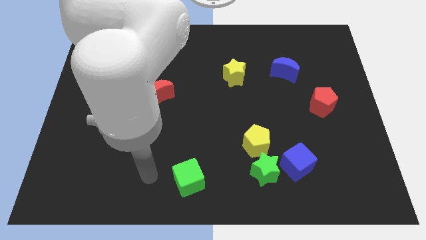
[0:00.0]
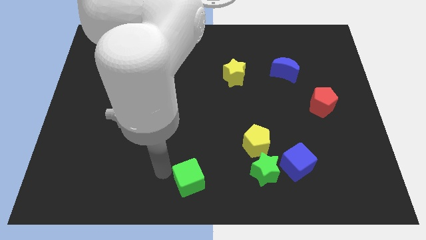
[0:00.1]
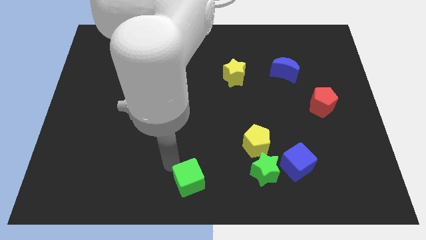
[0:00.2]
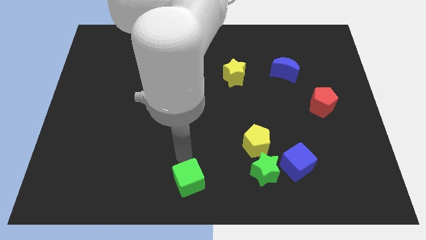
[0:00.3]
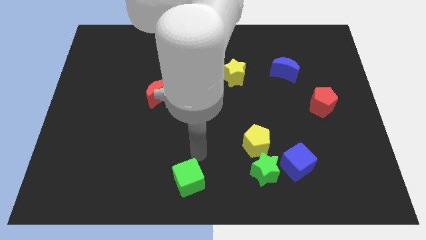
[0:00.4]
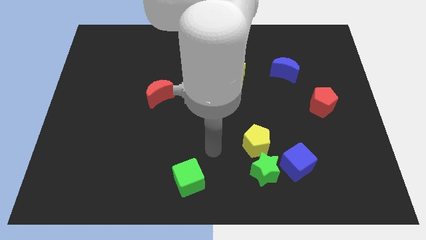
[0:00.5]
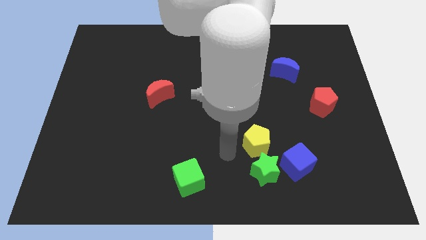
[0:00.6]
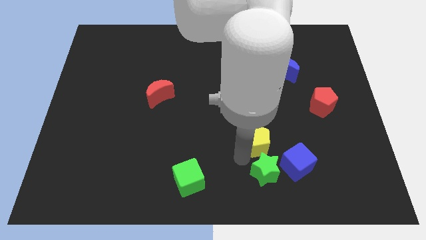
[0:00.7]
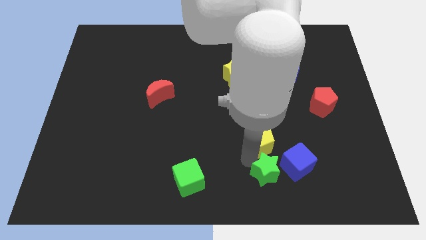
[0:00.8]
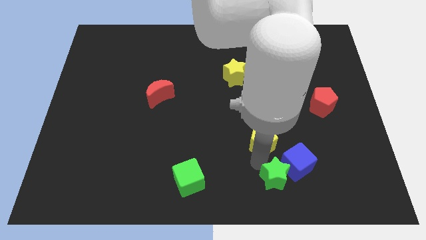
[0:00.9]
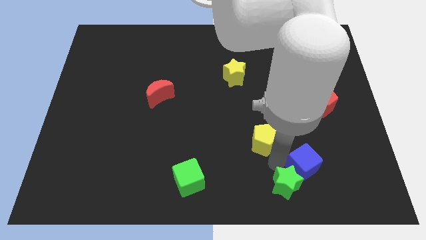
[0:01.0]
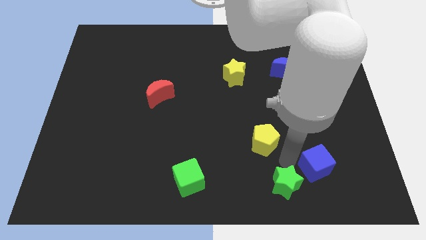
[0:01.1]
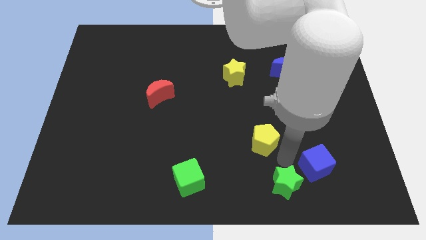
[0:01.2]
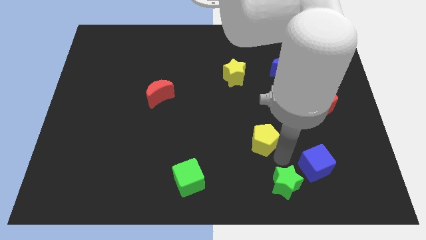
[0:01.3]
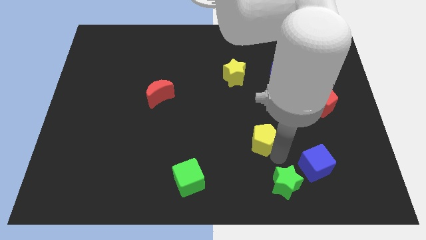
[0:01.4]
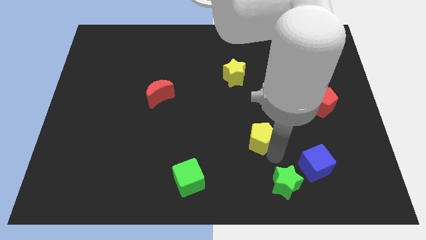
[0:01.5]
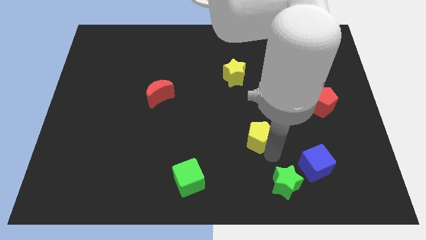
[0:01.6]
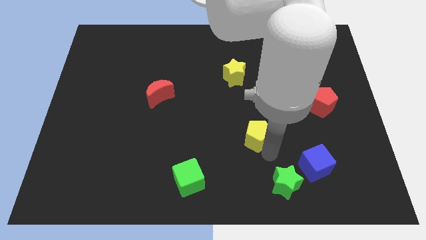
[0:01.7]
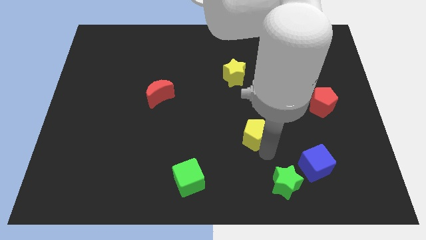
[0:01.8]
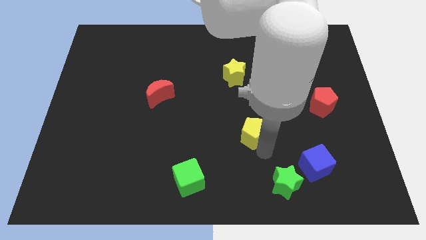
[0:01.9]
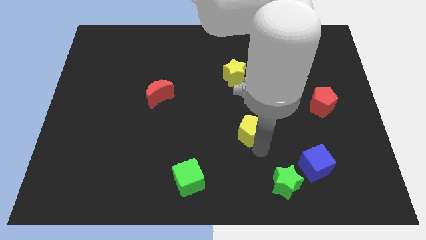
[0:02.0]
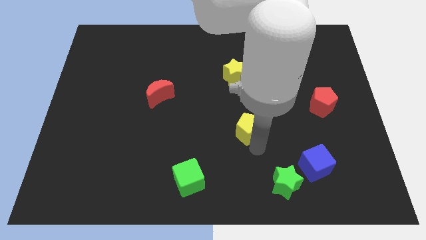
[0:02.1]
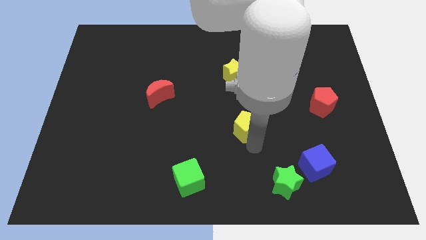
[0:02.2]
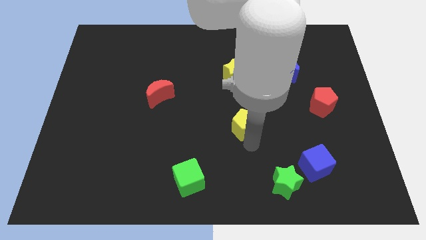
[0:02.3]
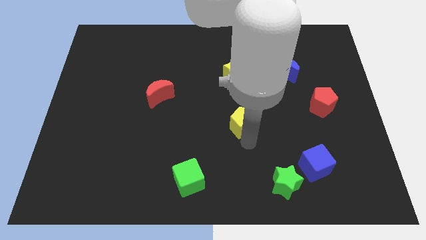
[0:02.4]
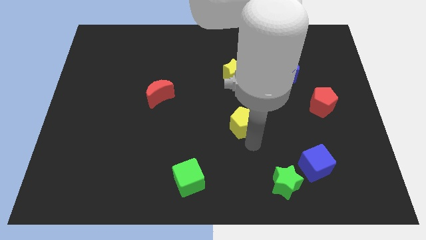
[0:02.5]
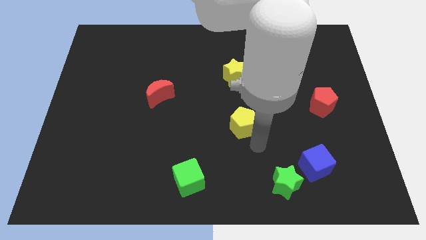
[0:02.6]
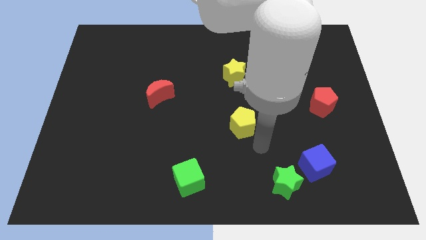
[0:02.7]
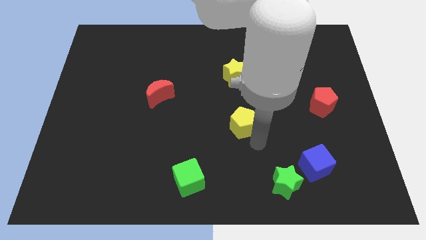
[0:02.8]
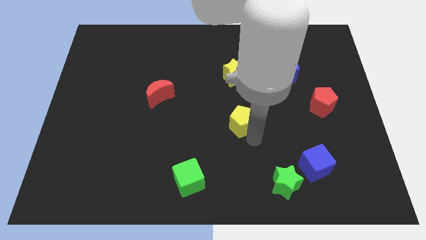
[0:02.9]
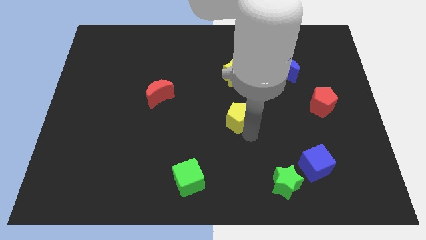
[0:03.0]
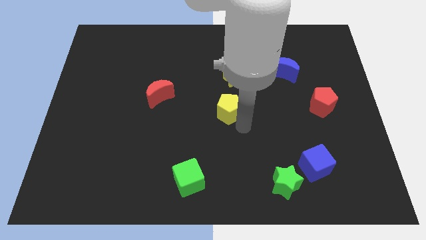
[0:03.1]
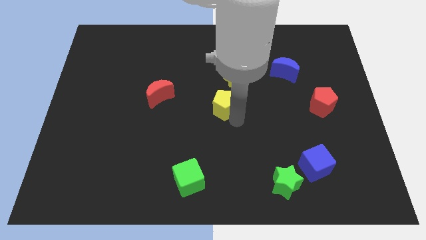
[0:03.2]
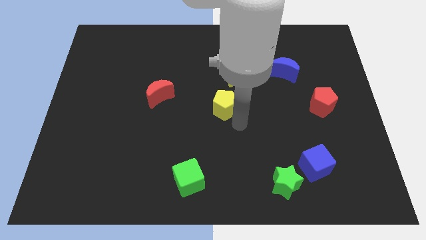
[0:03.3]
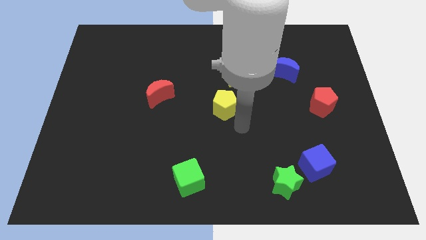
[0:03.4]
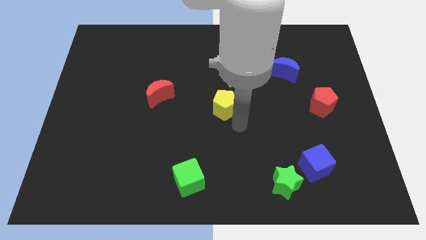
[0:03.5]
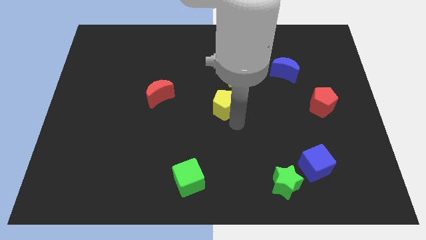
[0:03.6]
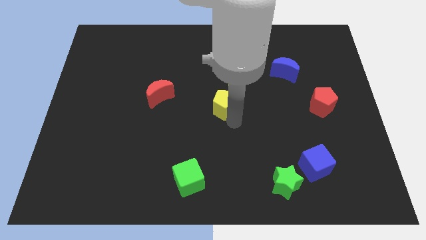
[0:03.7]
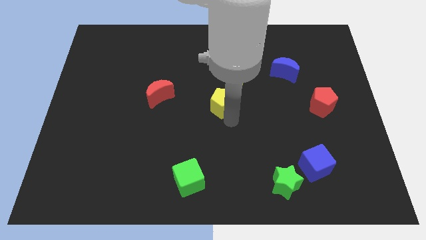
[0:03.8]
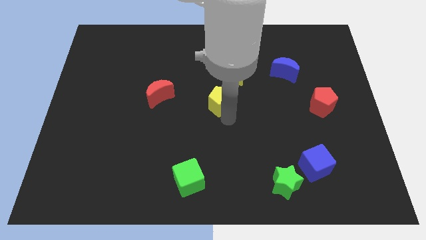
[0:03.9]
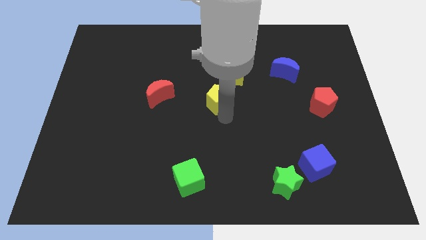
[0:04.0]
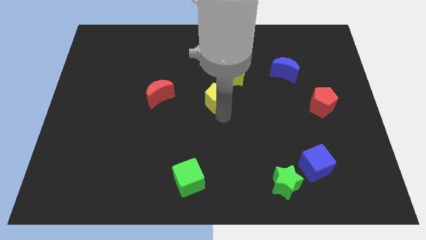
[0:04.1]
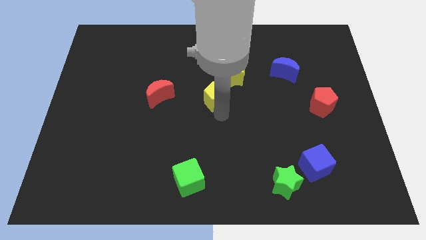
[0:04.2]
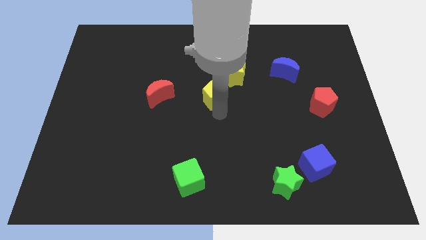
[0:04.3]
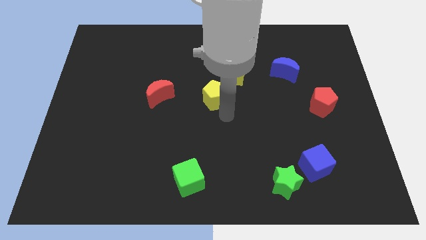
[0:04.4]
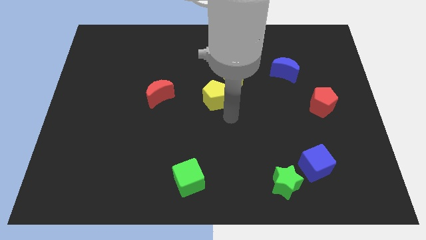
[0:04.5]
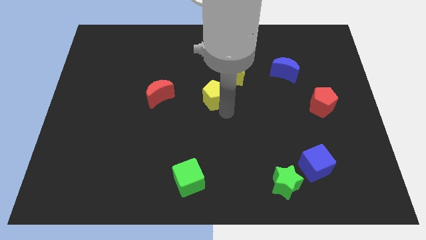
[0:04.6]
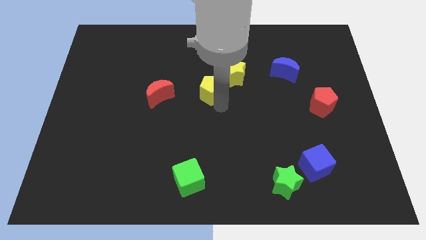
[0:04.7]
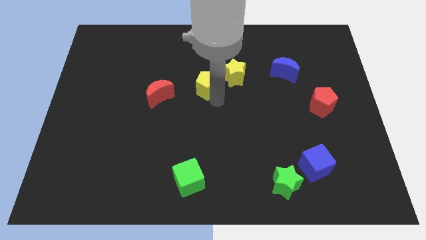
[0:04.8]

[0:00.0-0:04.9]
push the yellow pentagon to the left of the yellow star

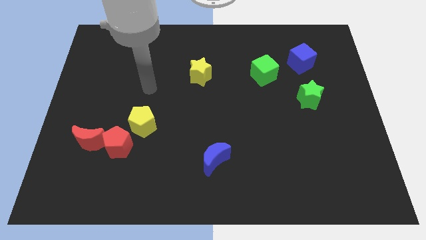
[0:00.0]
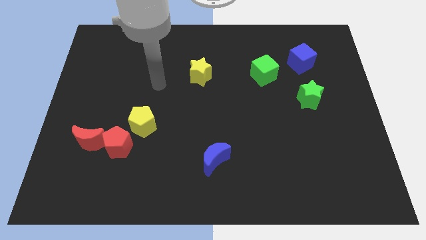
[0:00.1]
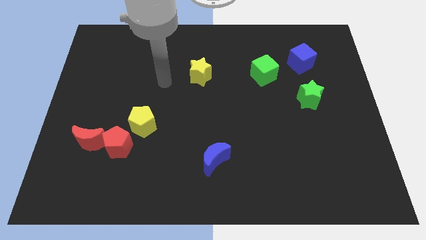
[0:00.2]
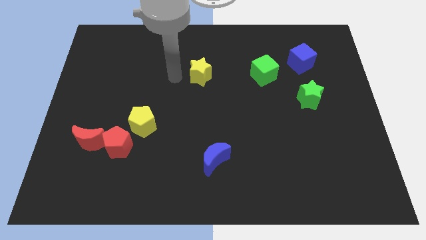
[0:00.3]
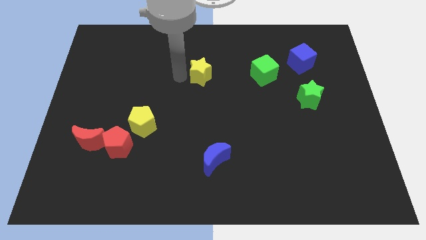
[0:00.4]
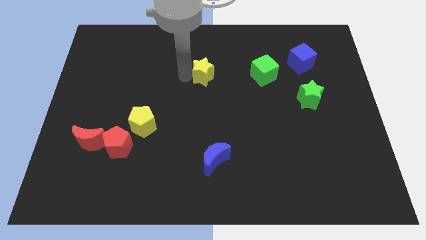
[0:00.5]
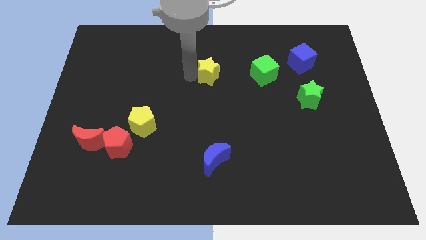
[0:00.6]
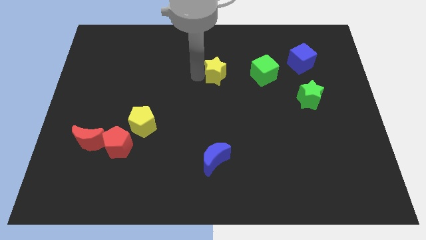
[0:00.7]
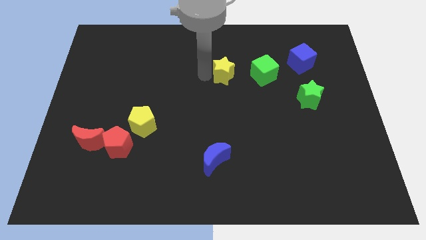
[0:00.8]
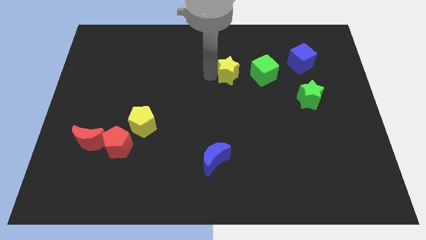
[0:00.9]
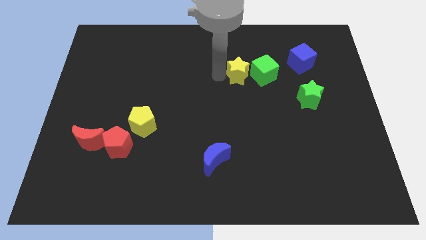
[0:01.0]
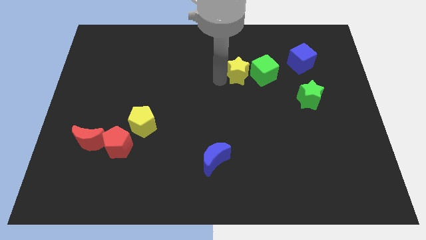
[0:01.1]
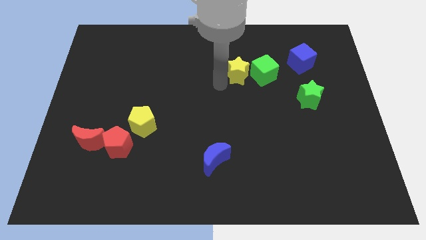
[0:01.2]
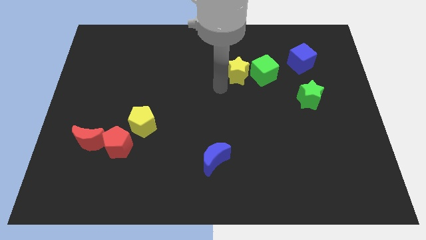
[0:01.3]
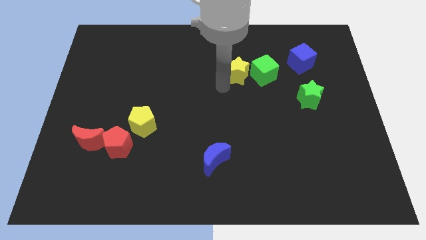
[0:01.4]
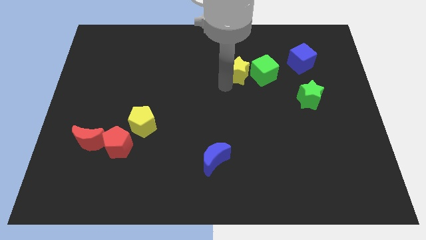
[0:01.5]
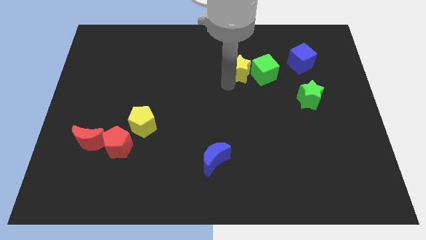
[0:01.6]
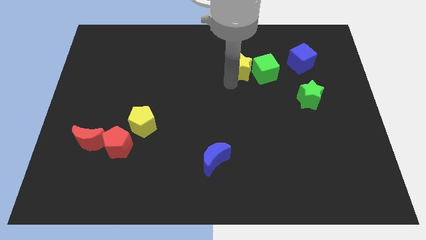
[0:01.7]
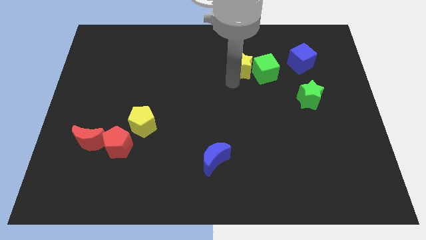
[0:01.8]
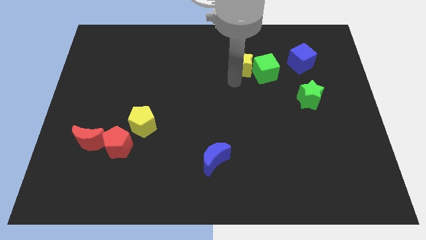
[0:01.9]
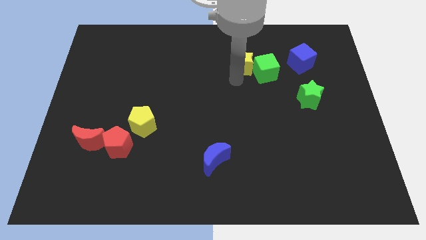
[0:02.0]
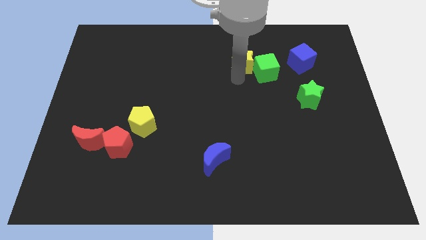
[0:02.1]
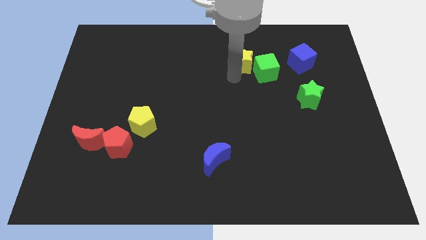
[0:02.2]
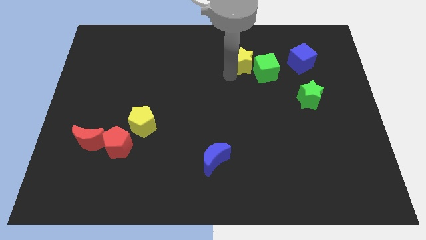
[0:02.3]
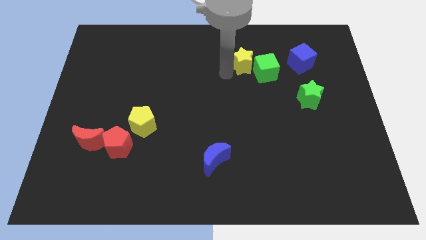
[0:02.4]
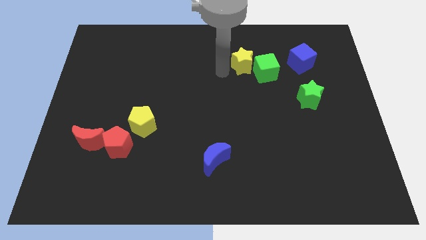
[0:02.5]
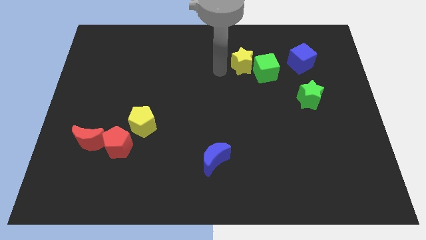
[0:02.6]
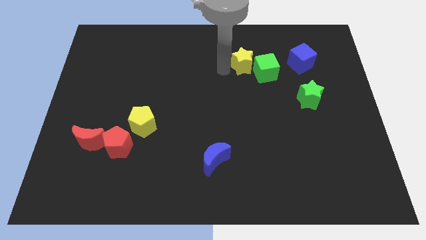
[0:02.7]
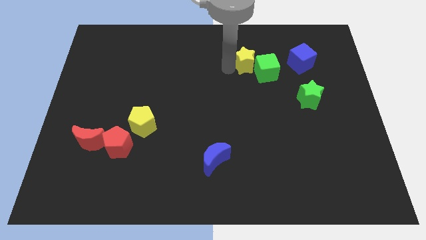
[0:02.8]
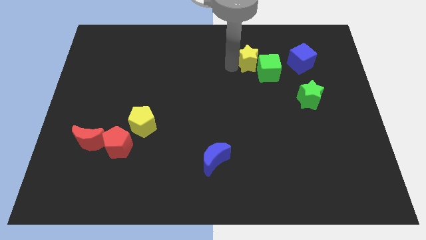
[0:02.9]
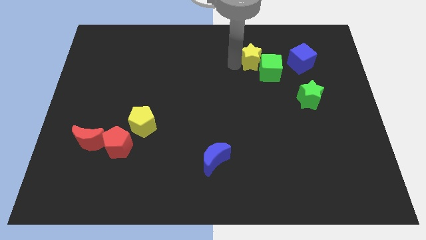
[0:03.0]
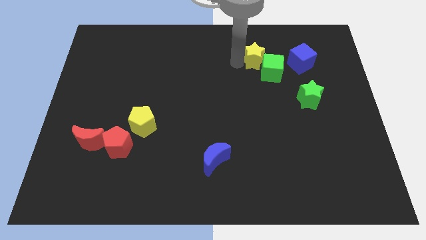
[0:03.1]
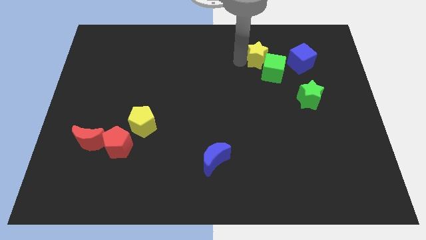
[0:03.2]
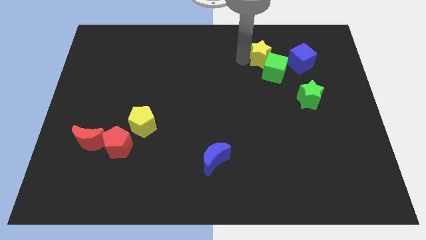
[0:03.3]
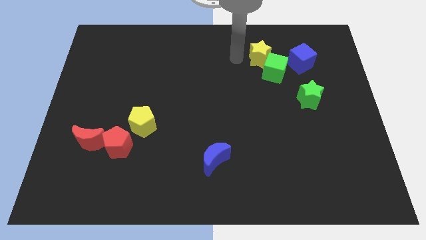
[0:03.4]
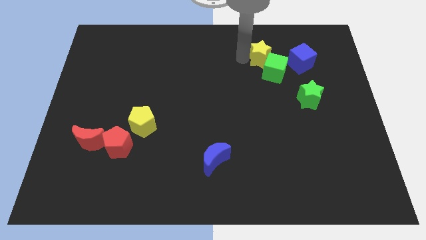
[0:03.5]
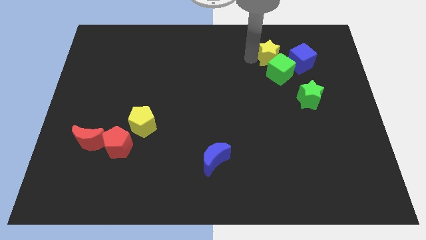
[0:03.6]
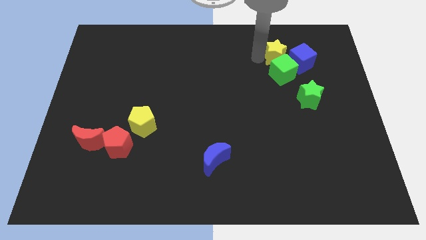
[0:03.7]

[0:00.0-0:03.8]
put the yellow star to the top right side of the green cube
